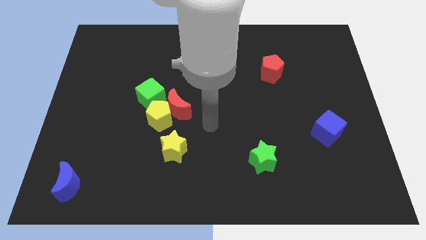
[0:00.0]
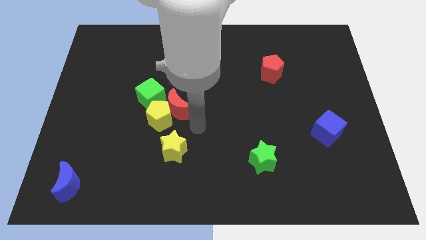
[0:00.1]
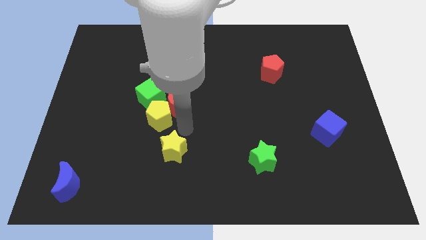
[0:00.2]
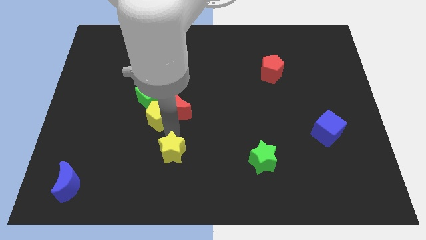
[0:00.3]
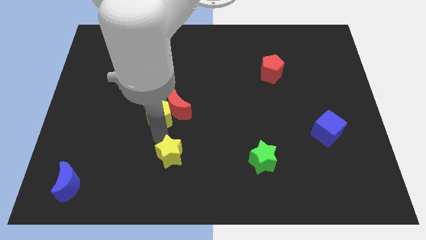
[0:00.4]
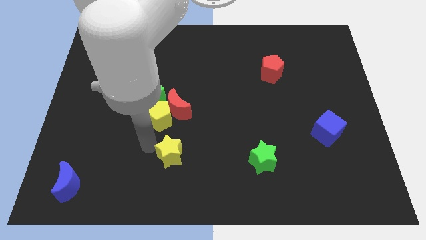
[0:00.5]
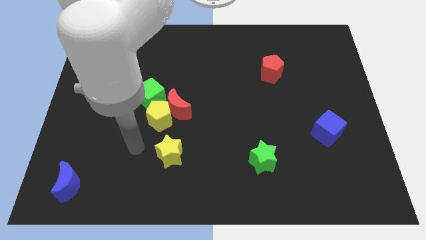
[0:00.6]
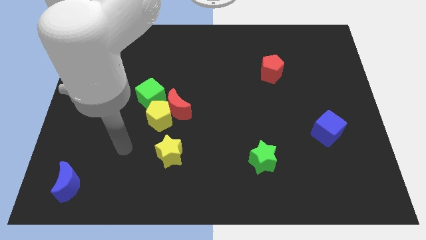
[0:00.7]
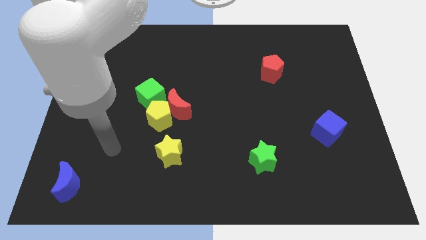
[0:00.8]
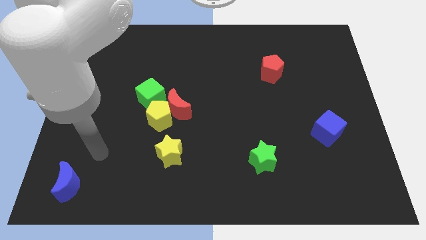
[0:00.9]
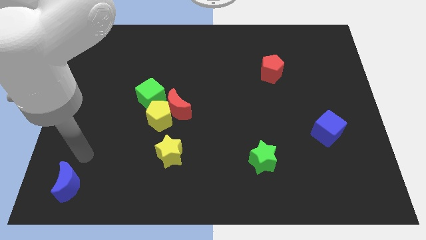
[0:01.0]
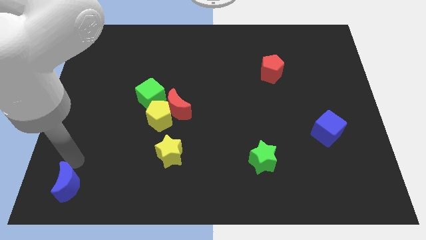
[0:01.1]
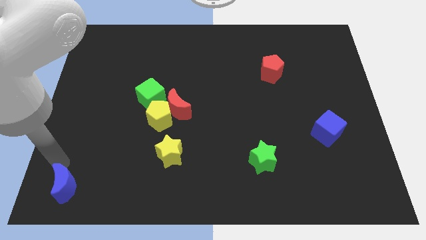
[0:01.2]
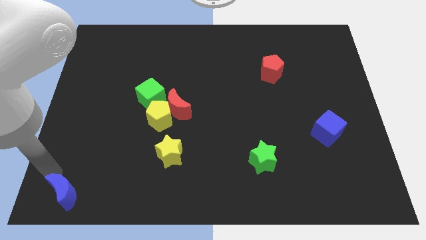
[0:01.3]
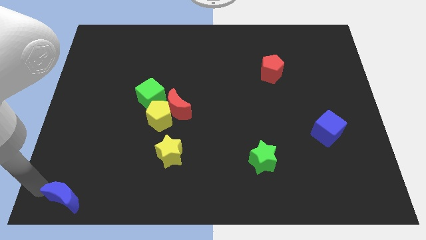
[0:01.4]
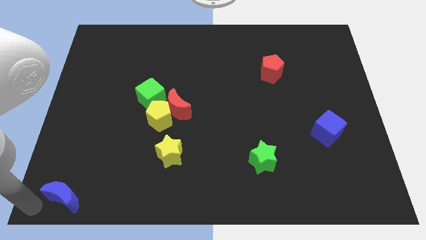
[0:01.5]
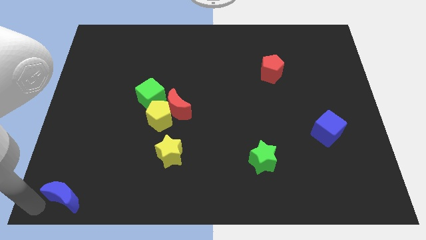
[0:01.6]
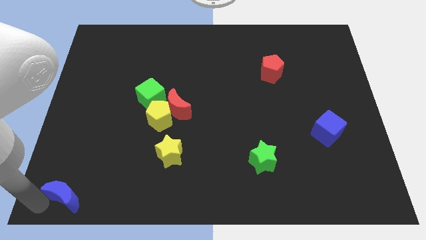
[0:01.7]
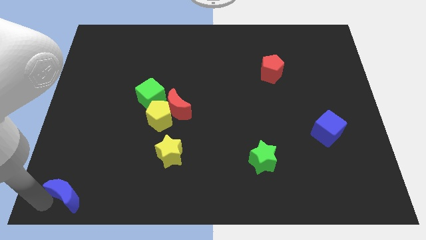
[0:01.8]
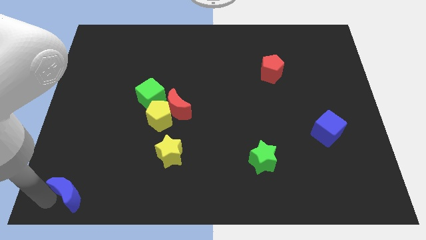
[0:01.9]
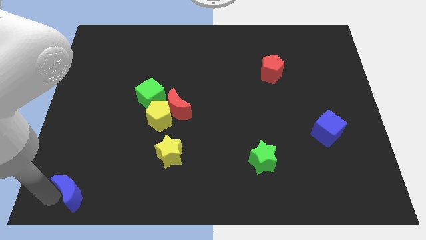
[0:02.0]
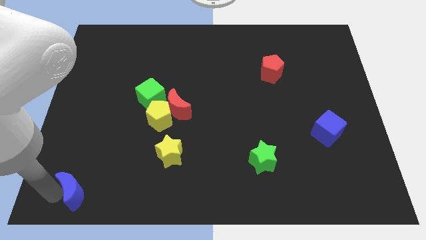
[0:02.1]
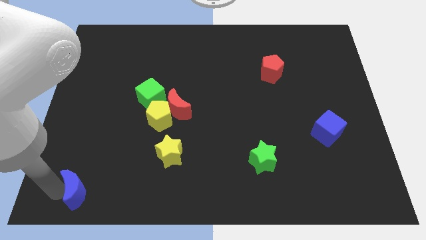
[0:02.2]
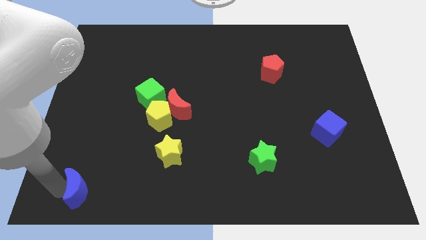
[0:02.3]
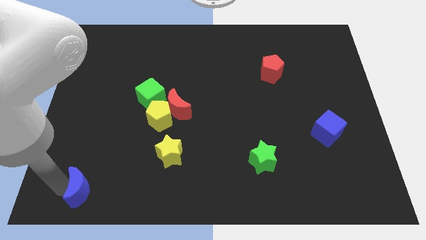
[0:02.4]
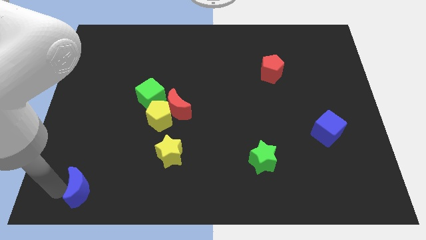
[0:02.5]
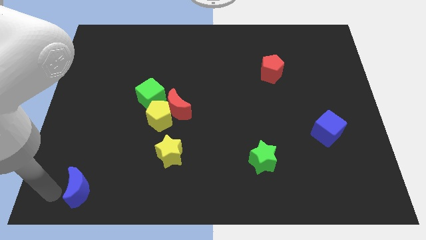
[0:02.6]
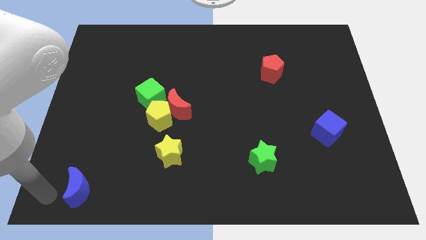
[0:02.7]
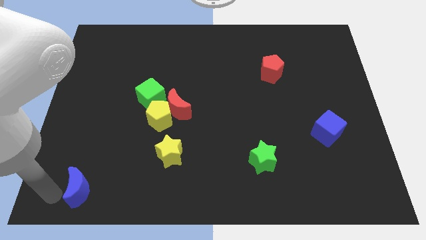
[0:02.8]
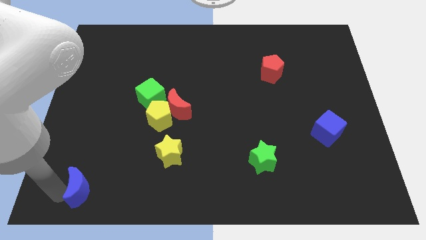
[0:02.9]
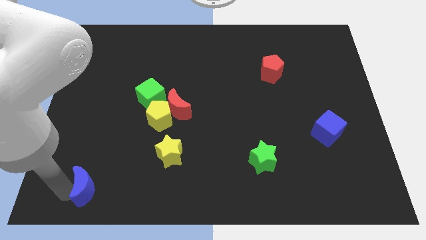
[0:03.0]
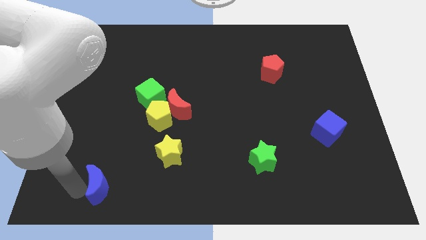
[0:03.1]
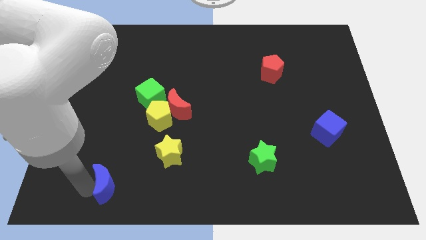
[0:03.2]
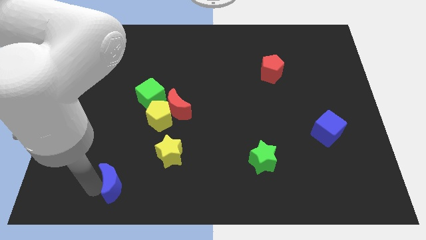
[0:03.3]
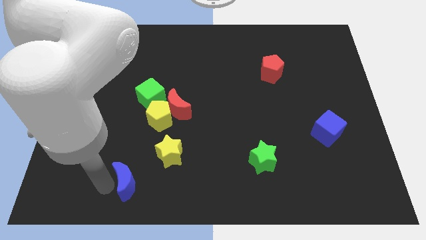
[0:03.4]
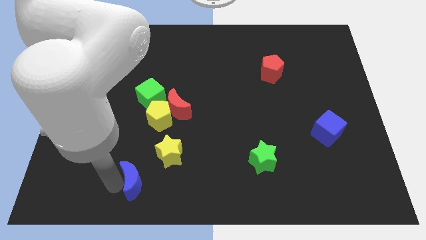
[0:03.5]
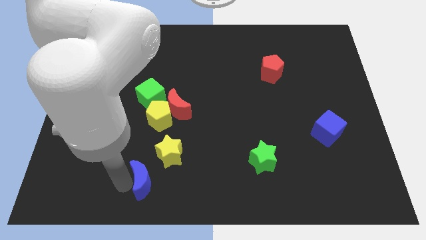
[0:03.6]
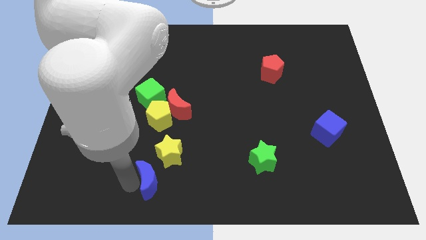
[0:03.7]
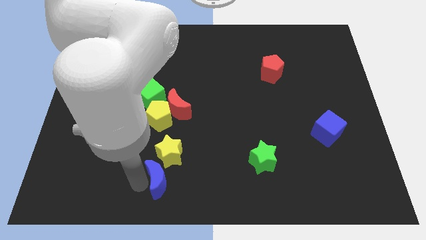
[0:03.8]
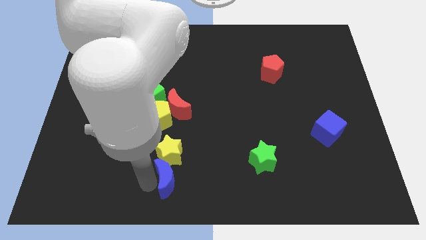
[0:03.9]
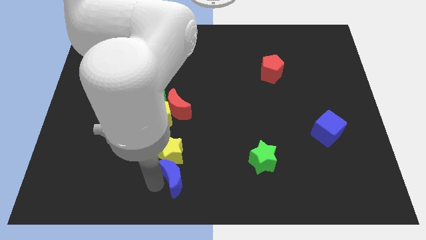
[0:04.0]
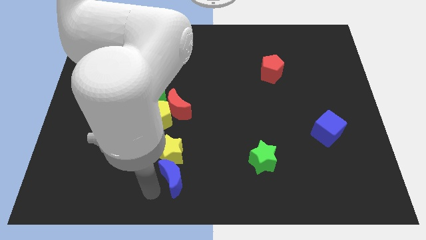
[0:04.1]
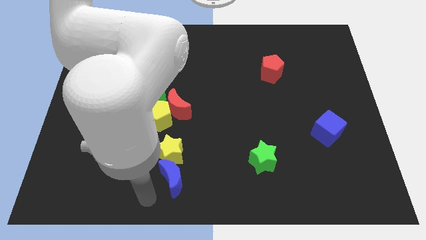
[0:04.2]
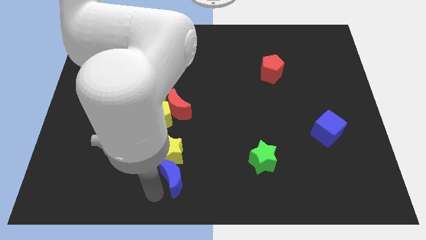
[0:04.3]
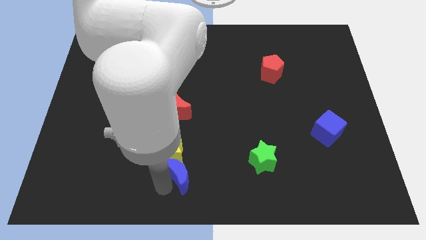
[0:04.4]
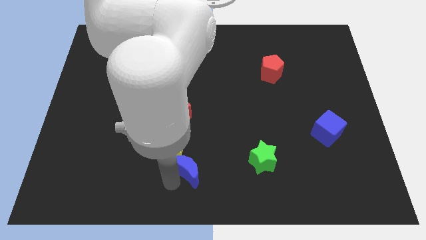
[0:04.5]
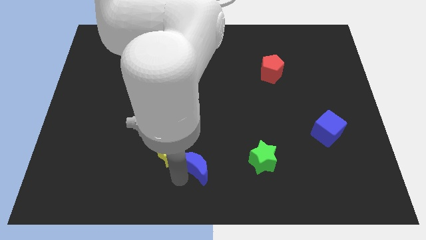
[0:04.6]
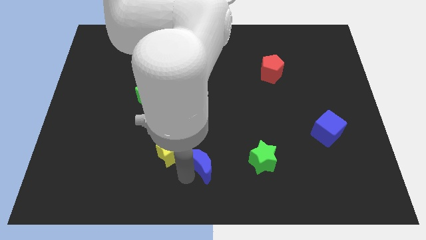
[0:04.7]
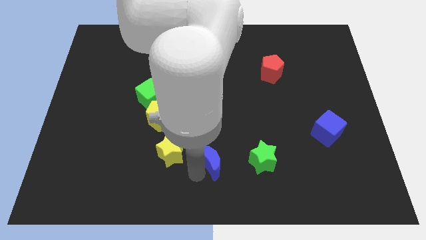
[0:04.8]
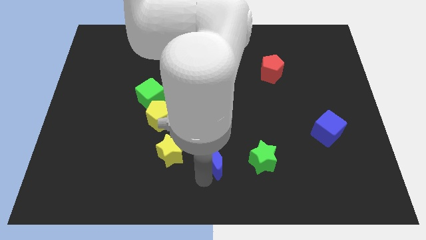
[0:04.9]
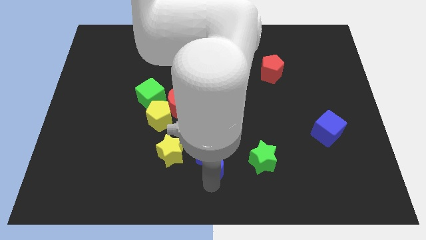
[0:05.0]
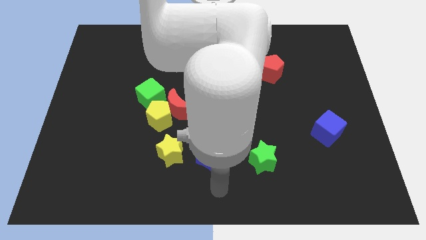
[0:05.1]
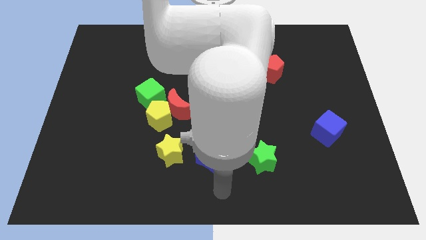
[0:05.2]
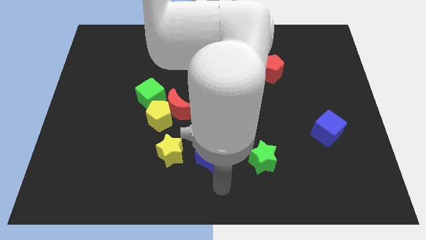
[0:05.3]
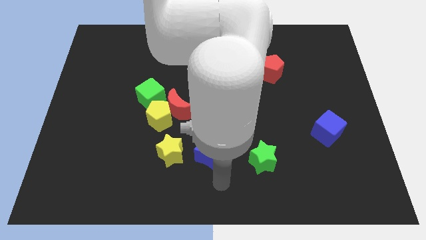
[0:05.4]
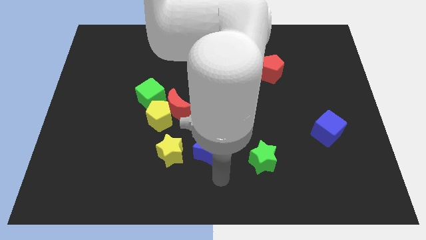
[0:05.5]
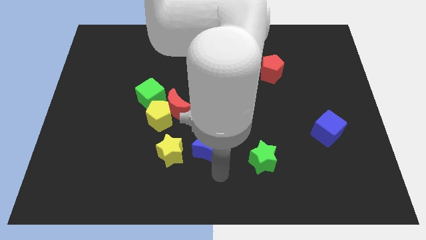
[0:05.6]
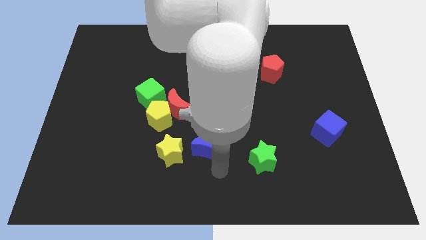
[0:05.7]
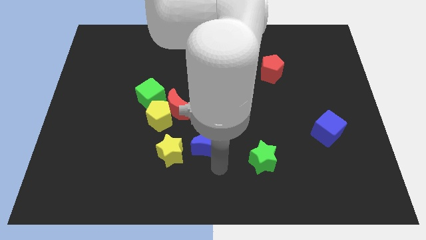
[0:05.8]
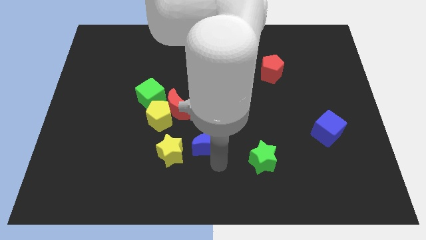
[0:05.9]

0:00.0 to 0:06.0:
move the blue moon to the bottom right side of the red moon

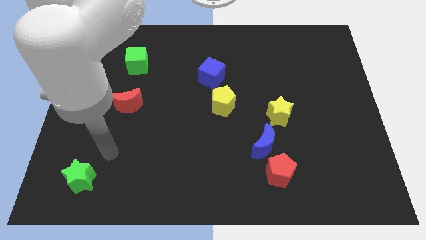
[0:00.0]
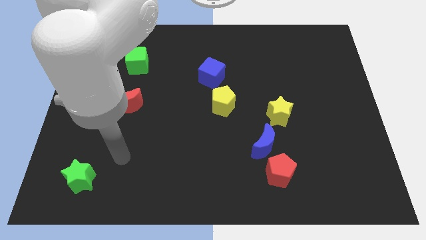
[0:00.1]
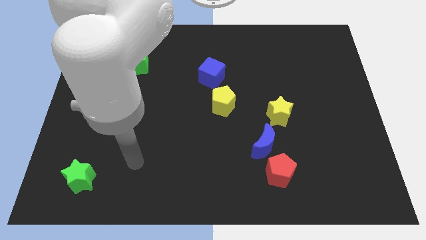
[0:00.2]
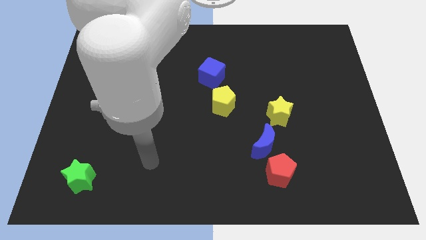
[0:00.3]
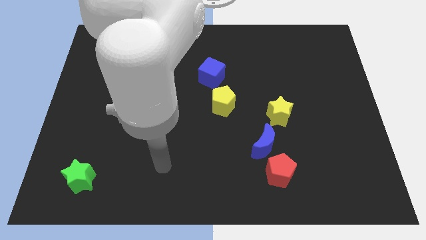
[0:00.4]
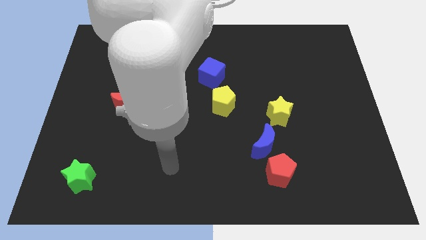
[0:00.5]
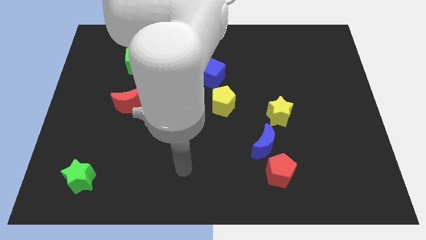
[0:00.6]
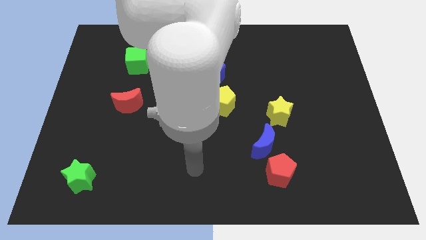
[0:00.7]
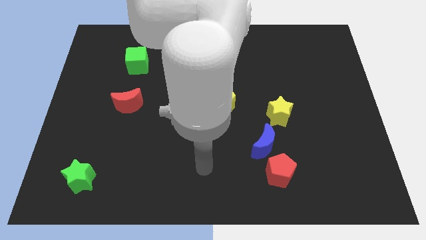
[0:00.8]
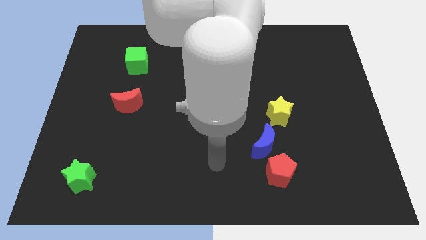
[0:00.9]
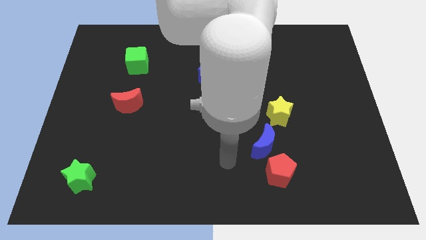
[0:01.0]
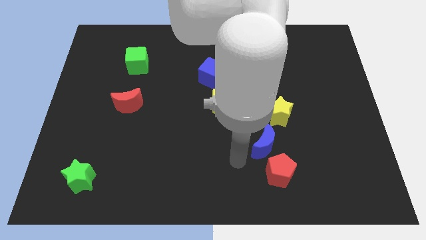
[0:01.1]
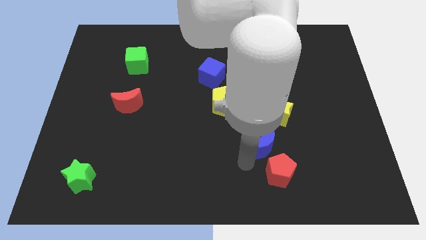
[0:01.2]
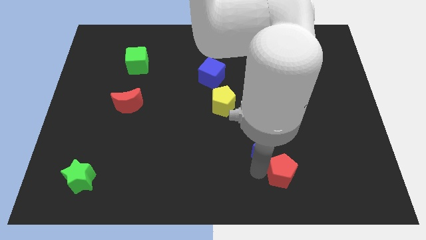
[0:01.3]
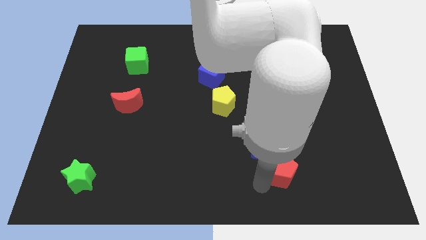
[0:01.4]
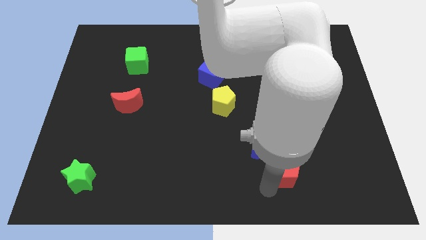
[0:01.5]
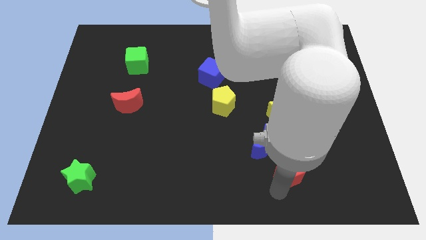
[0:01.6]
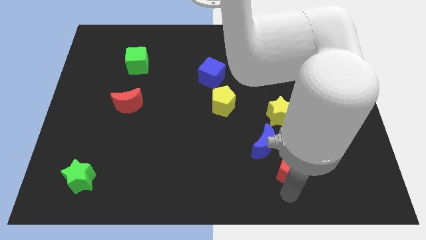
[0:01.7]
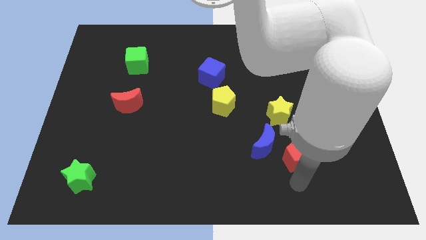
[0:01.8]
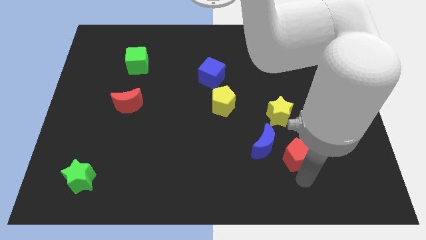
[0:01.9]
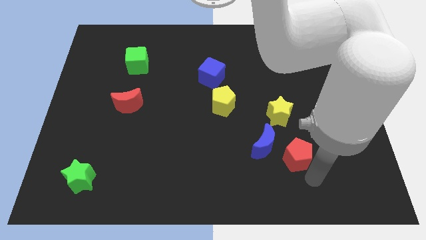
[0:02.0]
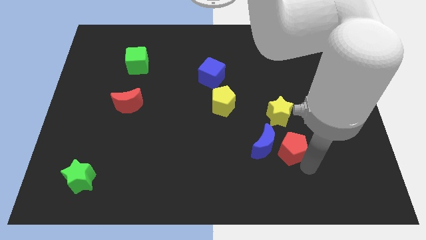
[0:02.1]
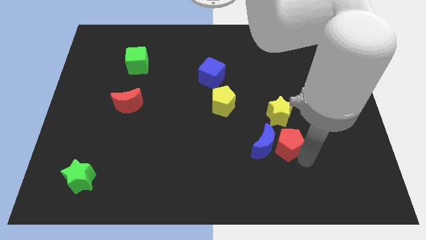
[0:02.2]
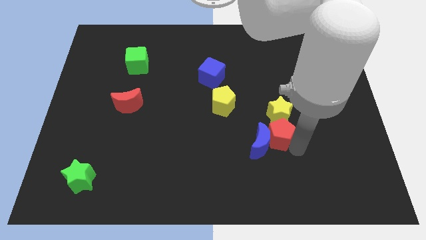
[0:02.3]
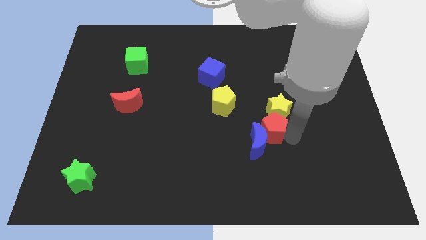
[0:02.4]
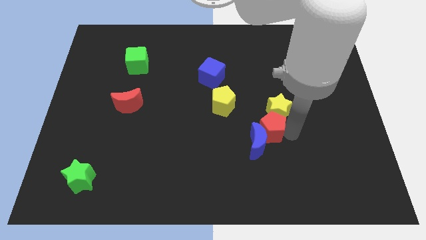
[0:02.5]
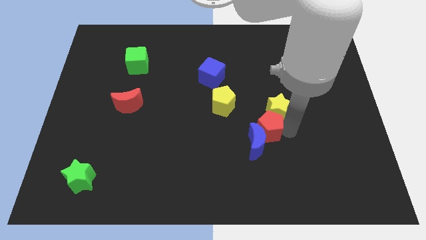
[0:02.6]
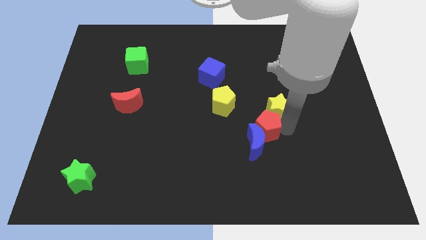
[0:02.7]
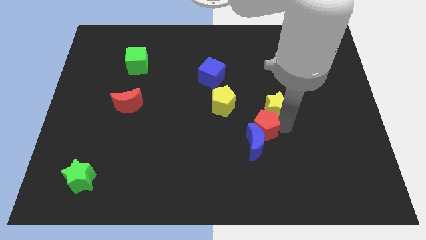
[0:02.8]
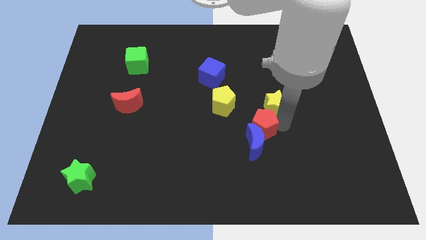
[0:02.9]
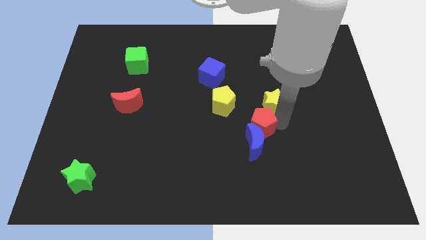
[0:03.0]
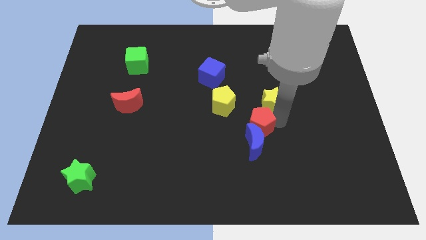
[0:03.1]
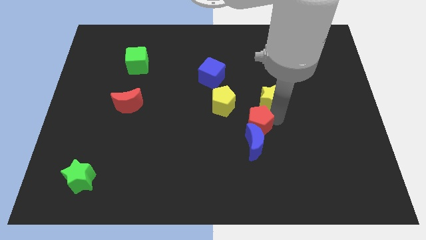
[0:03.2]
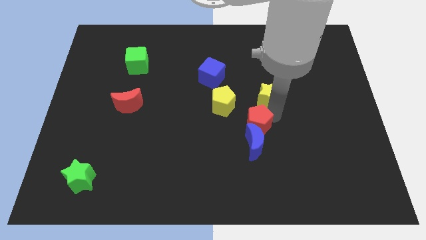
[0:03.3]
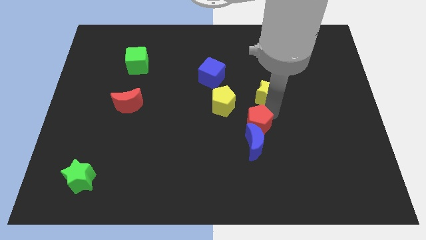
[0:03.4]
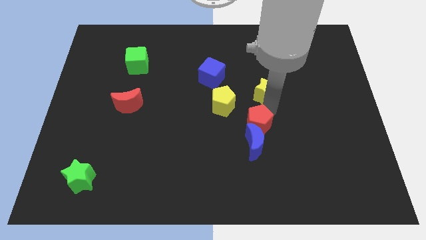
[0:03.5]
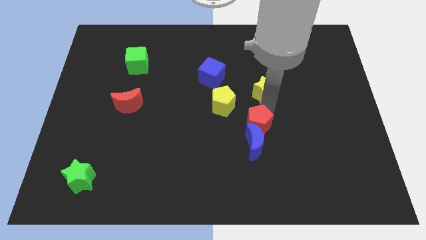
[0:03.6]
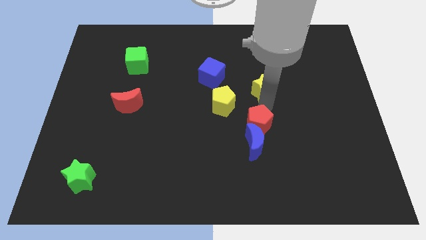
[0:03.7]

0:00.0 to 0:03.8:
put the yellow star right of the blue cube
